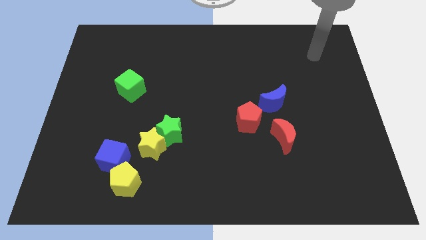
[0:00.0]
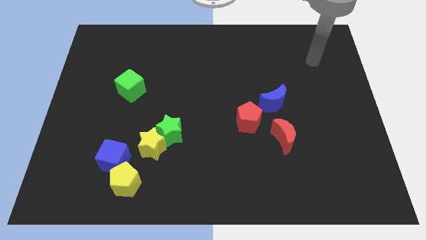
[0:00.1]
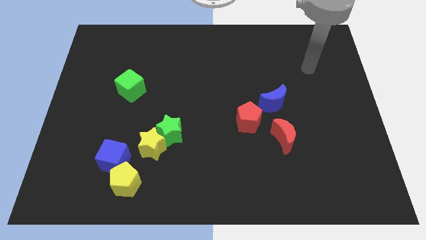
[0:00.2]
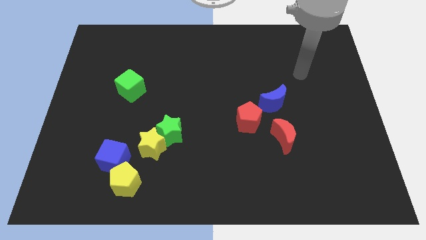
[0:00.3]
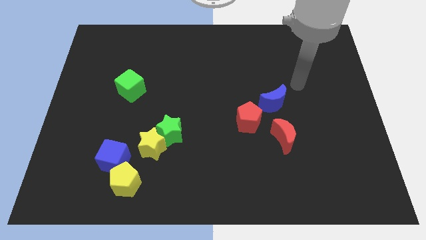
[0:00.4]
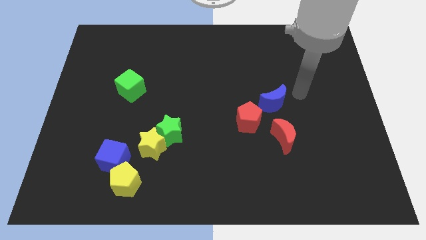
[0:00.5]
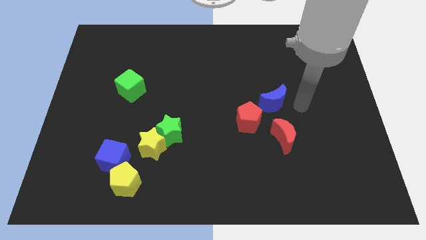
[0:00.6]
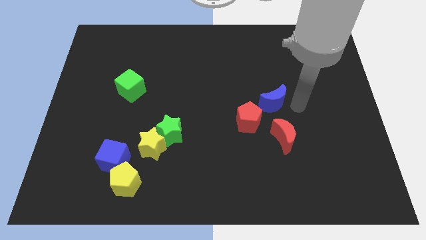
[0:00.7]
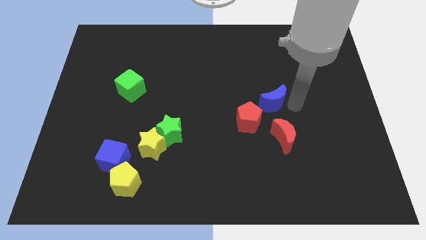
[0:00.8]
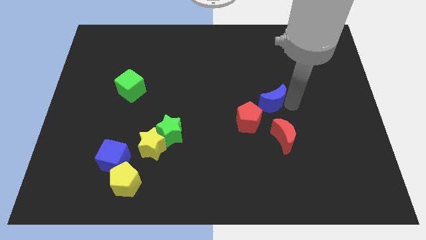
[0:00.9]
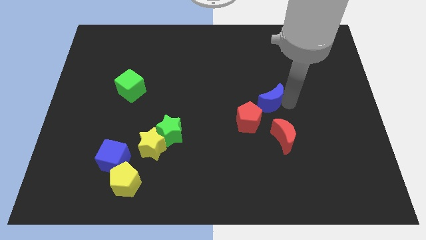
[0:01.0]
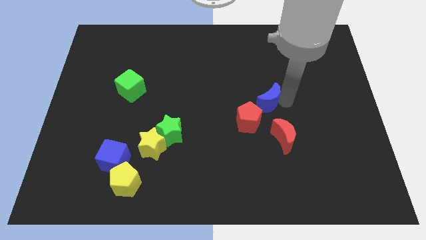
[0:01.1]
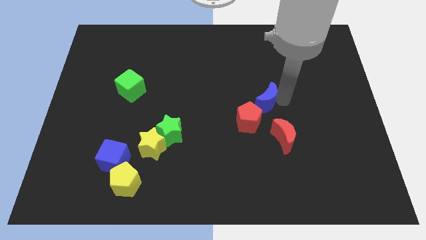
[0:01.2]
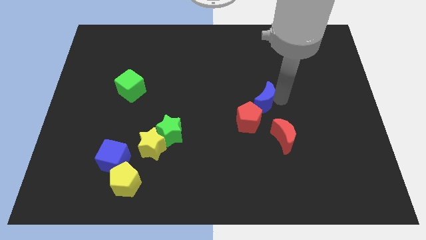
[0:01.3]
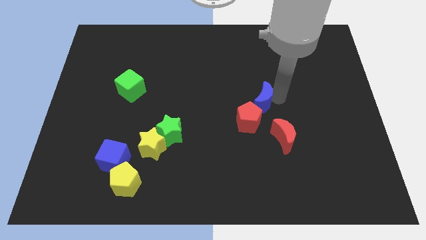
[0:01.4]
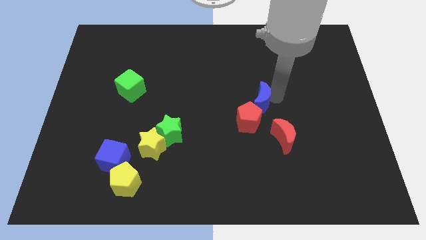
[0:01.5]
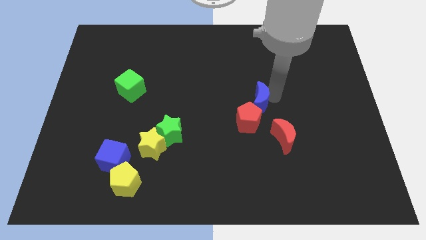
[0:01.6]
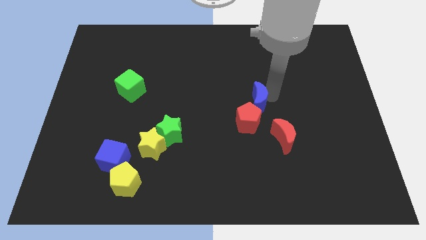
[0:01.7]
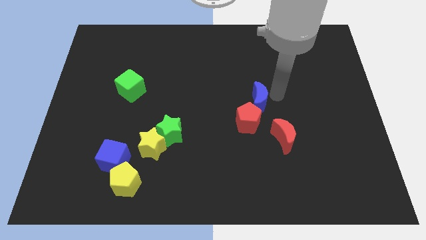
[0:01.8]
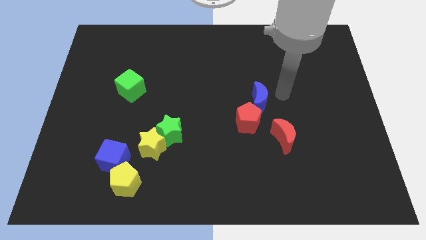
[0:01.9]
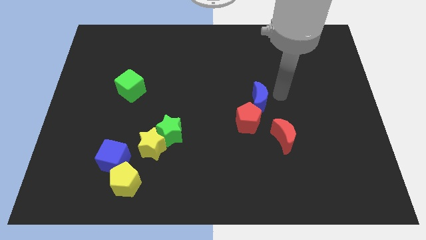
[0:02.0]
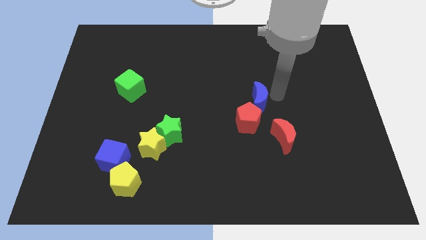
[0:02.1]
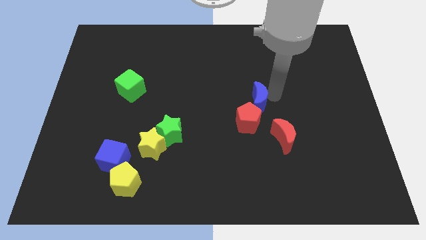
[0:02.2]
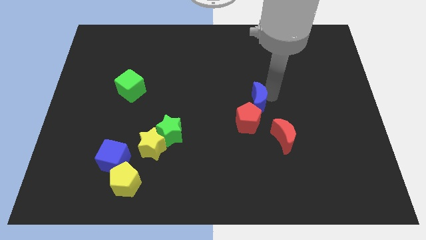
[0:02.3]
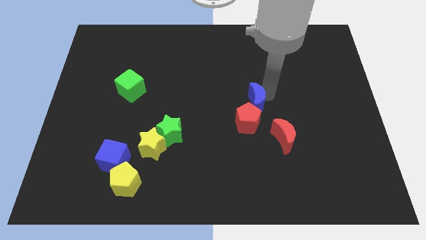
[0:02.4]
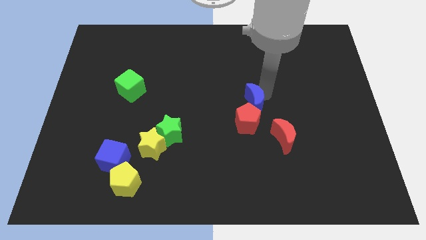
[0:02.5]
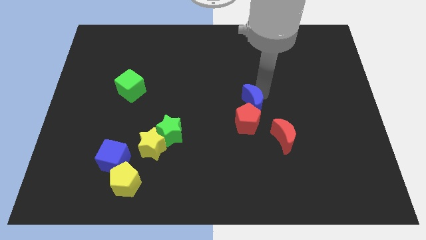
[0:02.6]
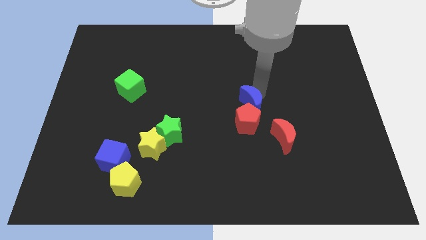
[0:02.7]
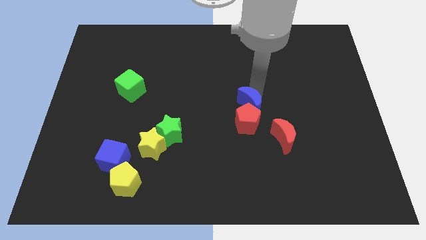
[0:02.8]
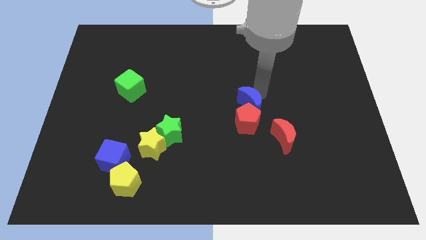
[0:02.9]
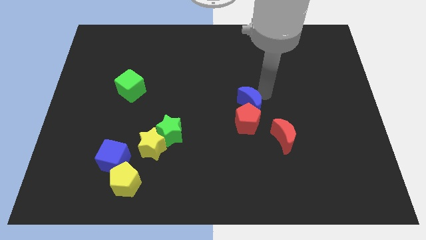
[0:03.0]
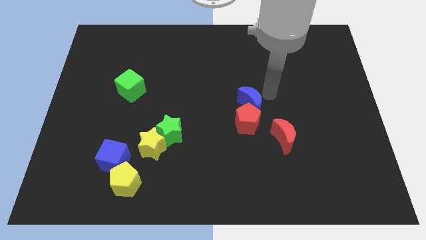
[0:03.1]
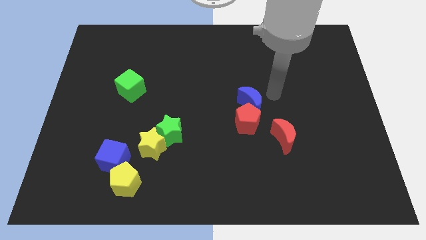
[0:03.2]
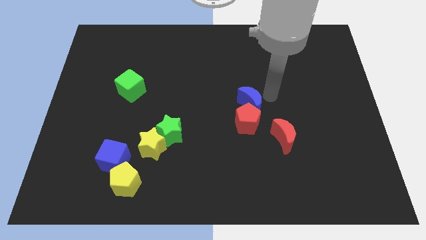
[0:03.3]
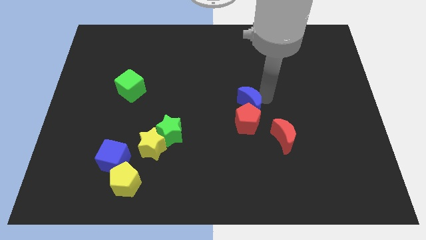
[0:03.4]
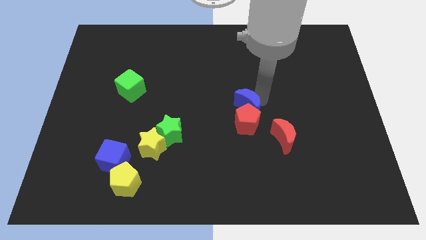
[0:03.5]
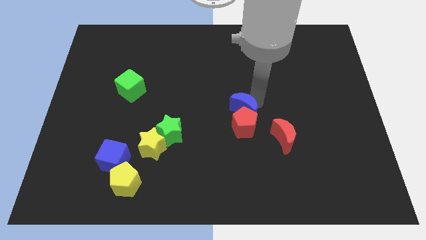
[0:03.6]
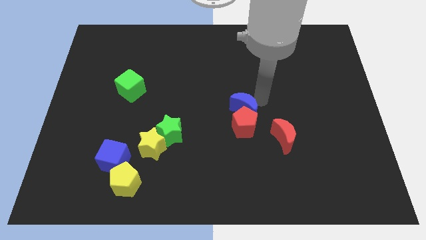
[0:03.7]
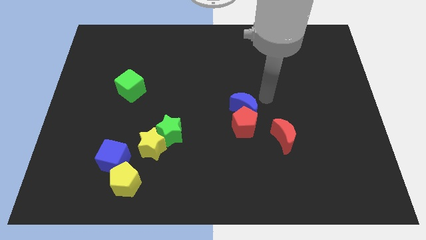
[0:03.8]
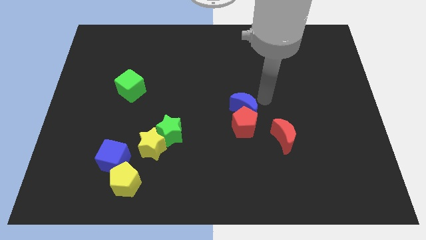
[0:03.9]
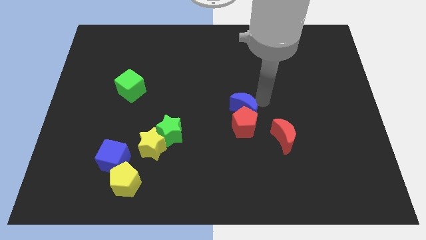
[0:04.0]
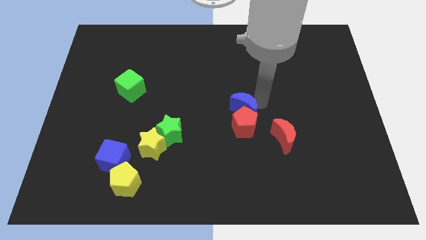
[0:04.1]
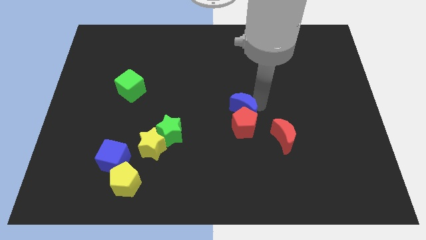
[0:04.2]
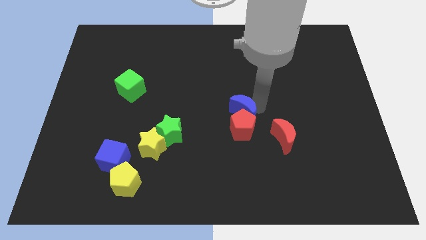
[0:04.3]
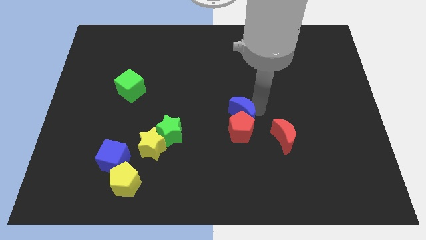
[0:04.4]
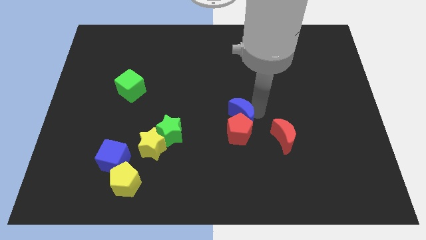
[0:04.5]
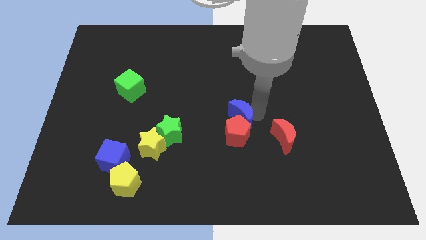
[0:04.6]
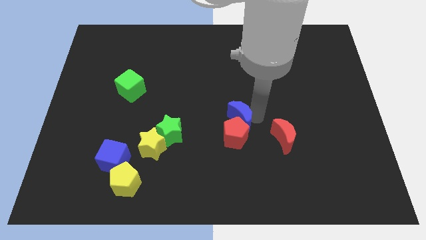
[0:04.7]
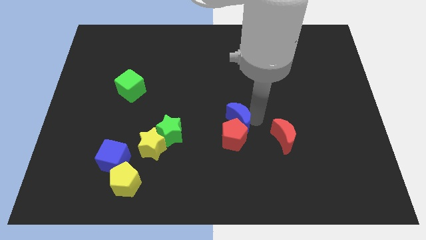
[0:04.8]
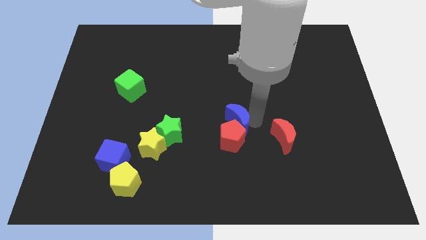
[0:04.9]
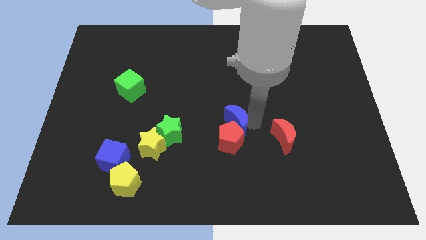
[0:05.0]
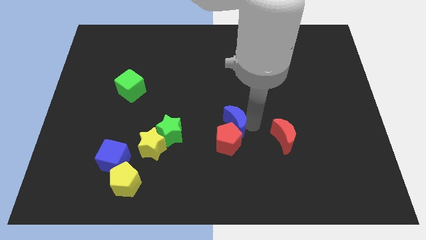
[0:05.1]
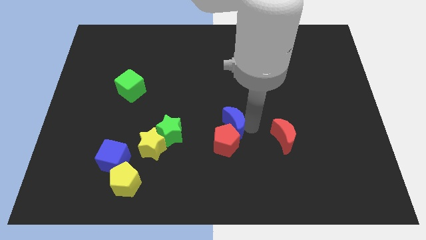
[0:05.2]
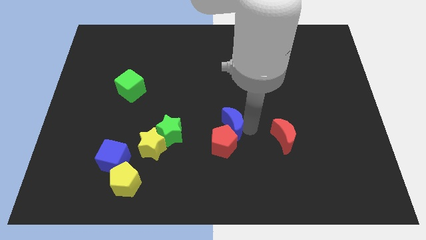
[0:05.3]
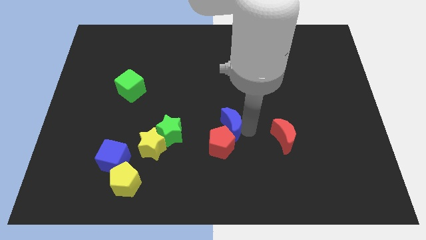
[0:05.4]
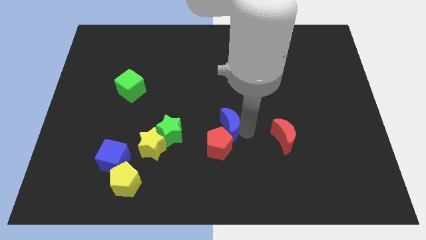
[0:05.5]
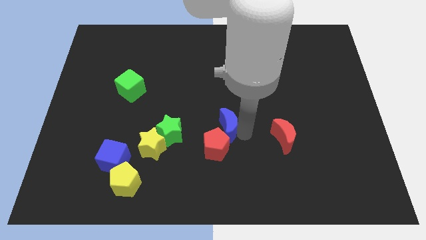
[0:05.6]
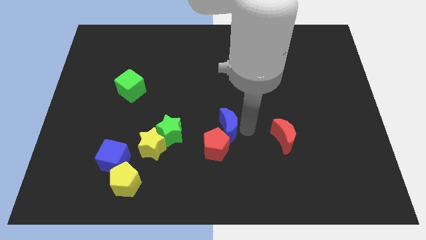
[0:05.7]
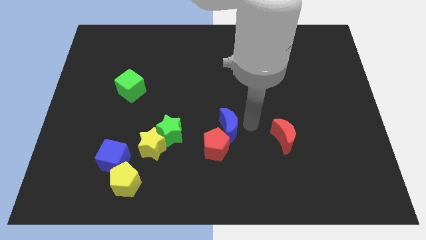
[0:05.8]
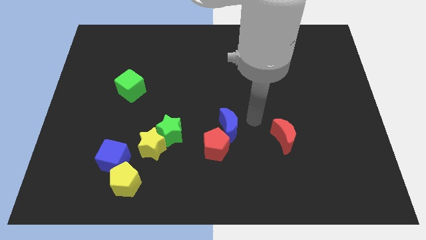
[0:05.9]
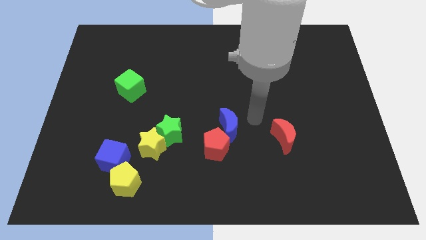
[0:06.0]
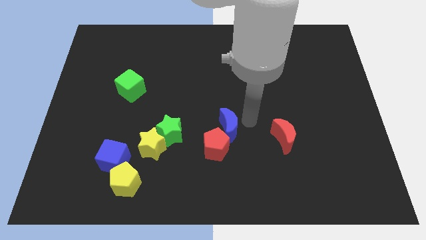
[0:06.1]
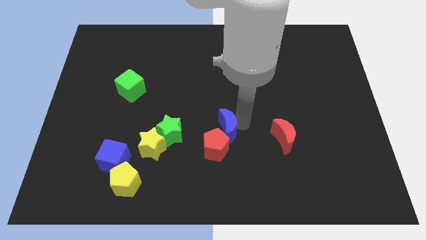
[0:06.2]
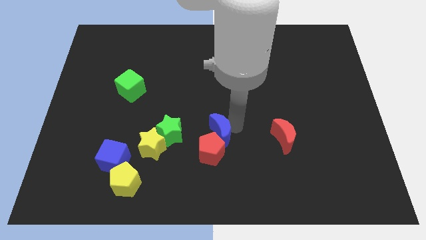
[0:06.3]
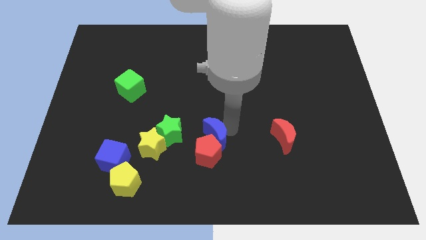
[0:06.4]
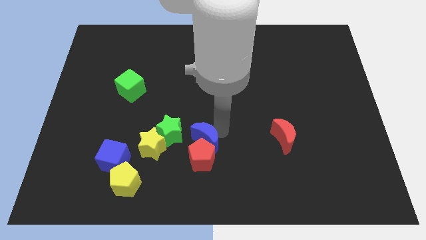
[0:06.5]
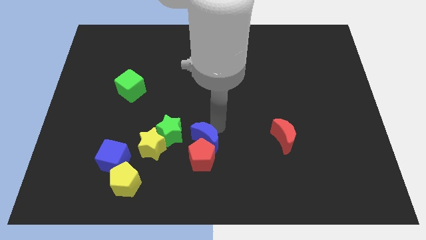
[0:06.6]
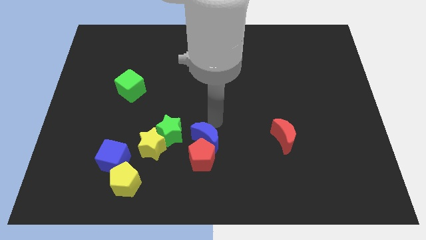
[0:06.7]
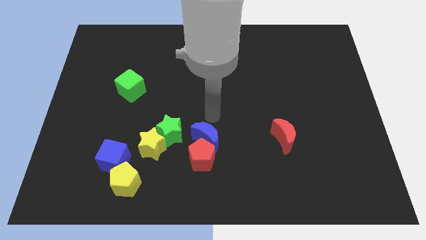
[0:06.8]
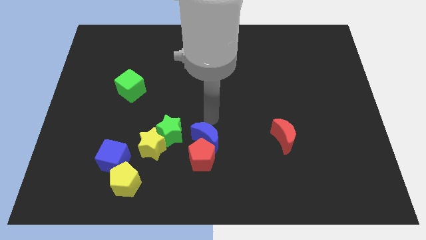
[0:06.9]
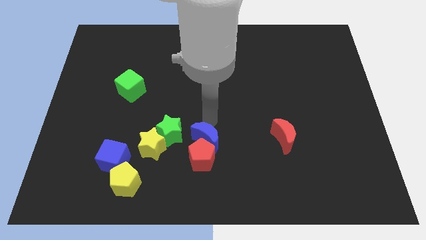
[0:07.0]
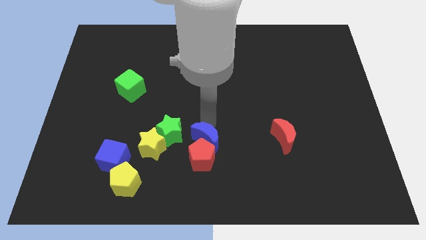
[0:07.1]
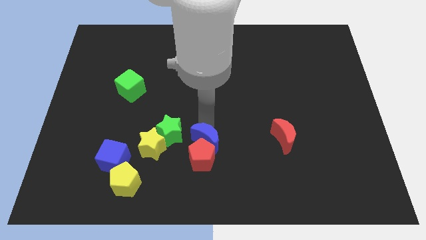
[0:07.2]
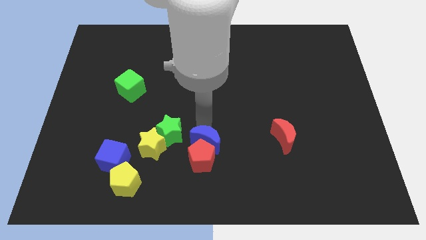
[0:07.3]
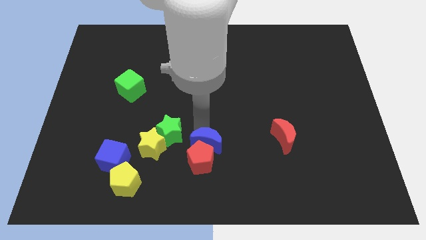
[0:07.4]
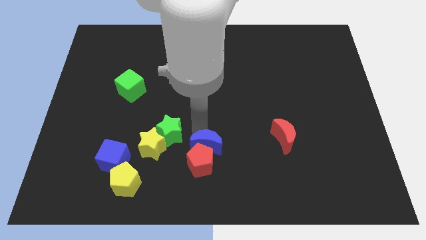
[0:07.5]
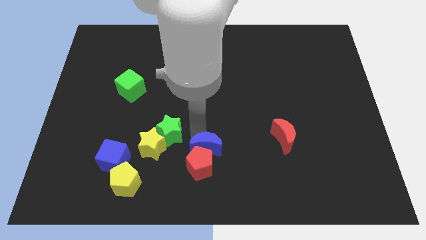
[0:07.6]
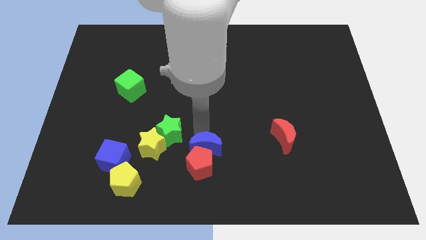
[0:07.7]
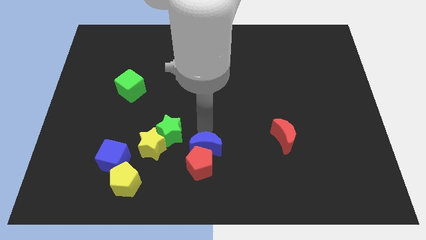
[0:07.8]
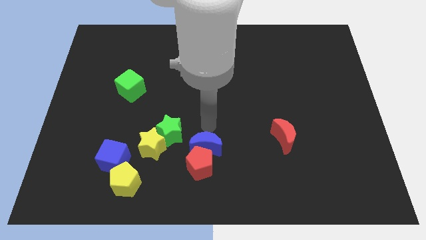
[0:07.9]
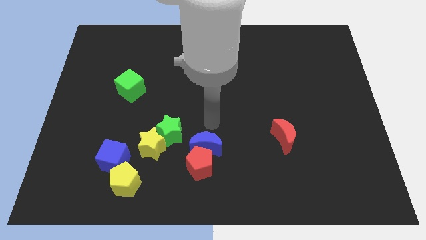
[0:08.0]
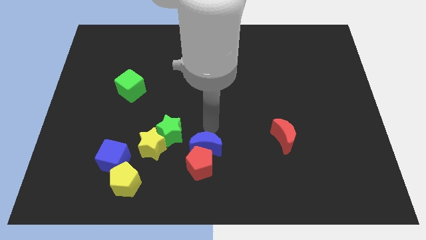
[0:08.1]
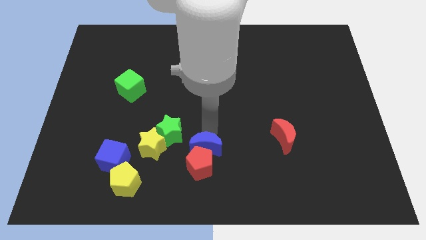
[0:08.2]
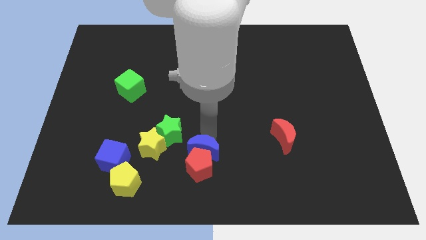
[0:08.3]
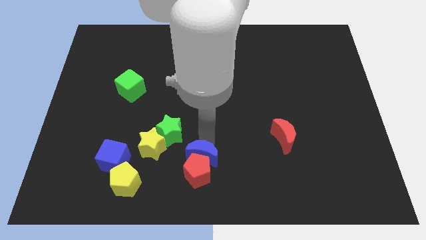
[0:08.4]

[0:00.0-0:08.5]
move the blue moon to the bottom
